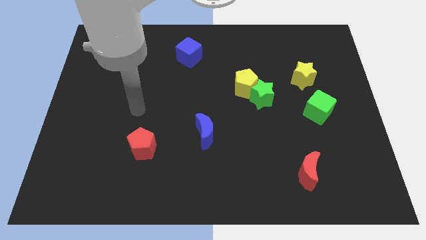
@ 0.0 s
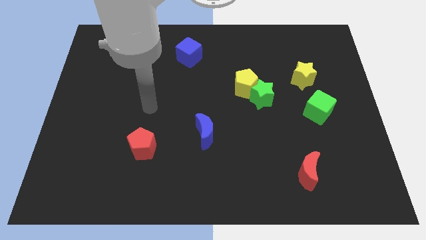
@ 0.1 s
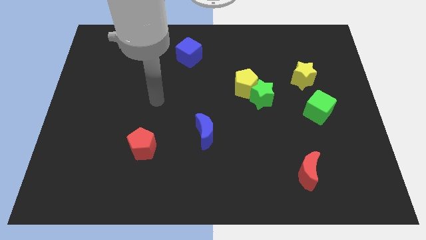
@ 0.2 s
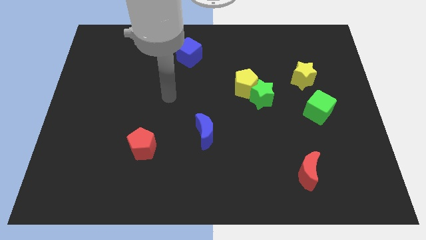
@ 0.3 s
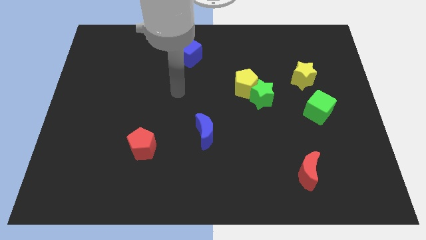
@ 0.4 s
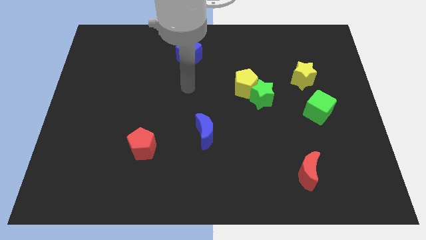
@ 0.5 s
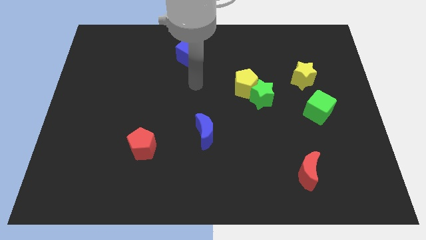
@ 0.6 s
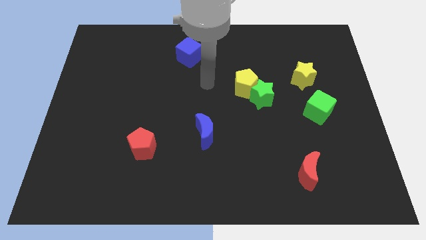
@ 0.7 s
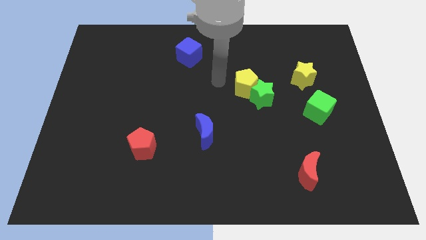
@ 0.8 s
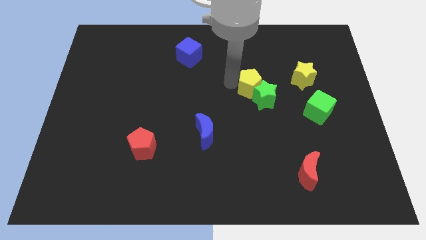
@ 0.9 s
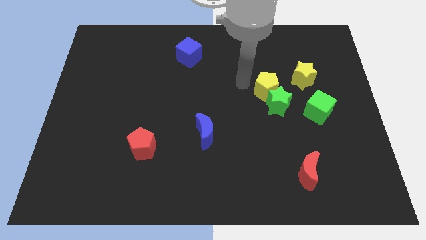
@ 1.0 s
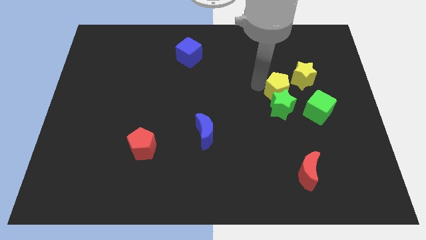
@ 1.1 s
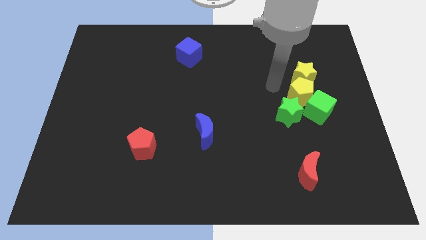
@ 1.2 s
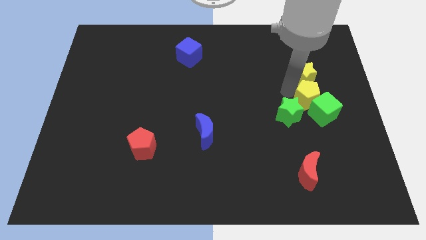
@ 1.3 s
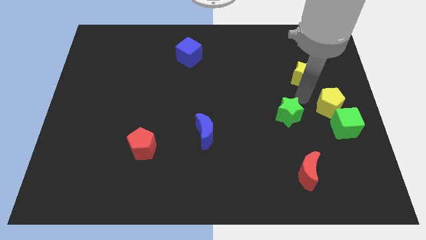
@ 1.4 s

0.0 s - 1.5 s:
separate the green star from the yellow pentagon

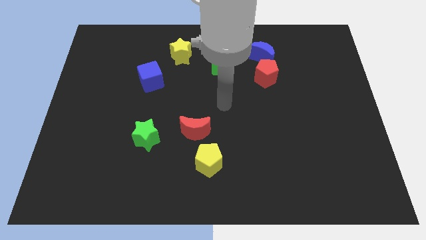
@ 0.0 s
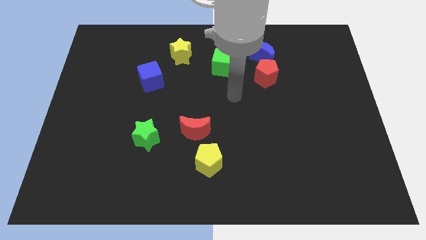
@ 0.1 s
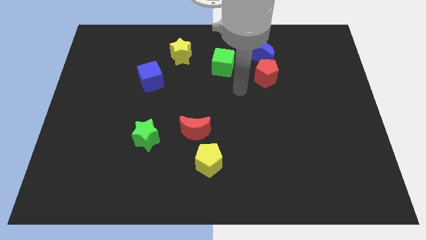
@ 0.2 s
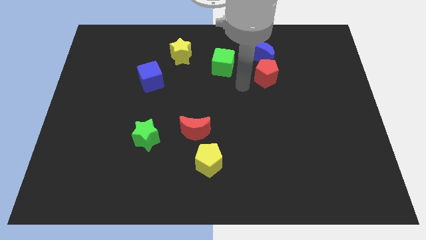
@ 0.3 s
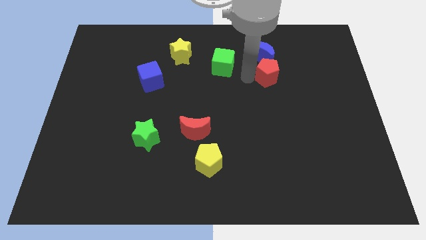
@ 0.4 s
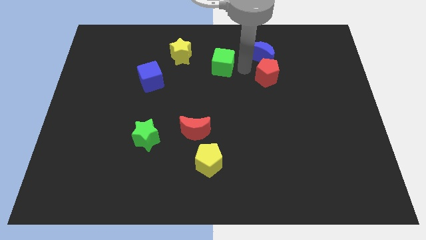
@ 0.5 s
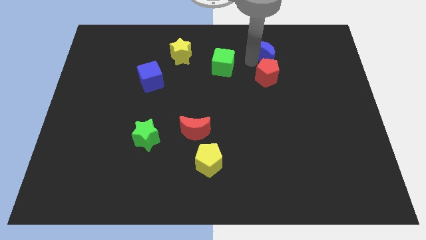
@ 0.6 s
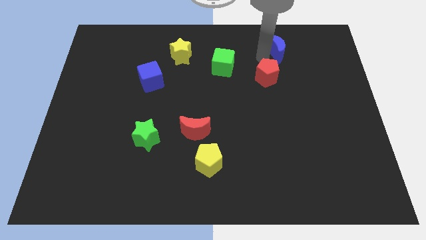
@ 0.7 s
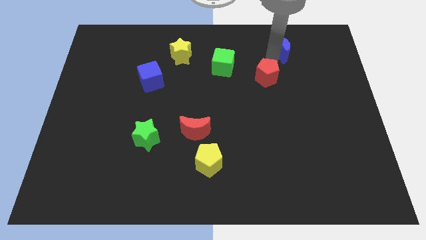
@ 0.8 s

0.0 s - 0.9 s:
pull the red pentagon apart from the blue moon

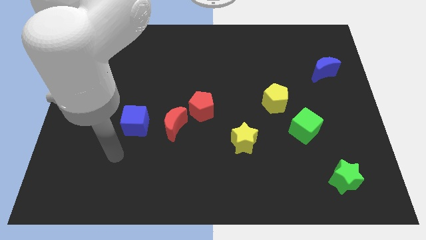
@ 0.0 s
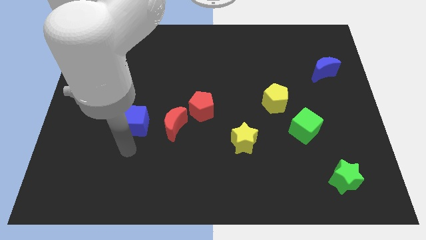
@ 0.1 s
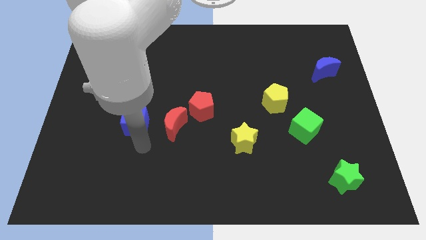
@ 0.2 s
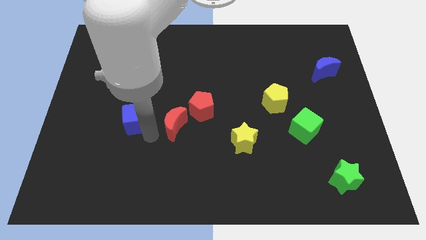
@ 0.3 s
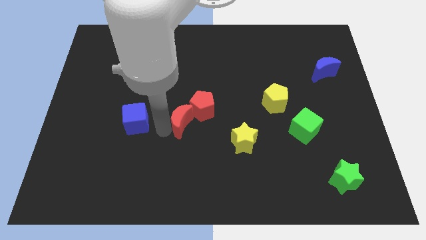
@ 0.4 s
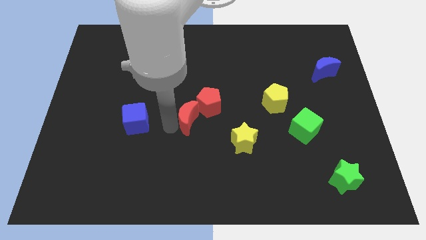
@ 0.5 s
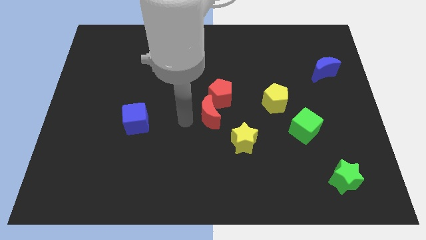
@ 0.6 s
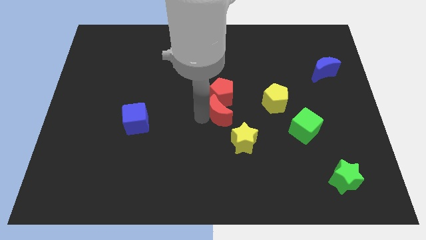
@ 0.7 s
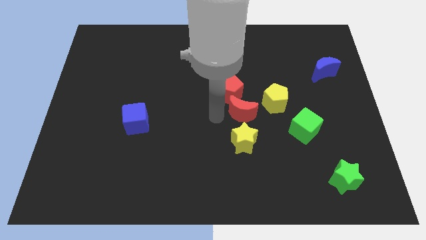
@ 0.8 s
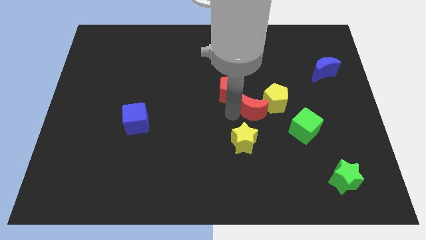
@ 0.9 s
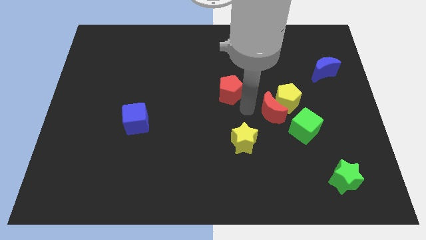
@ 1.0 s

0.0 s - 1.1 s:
move the red pentagon away from the red moon

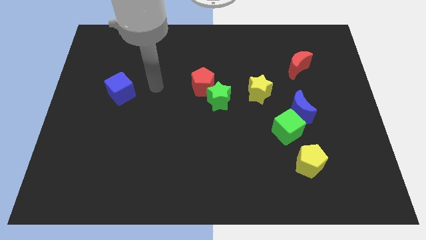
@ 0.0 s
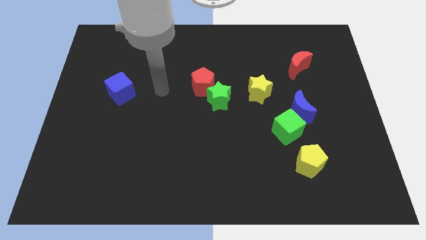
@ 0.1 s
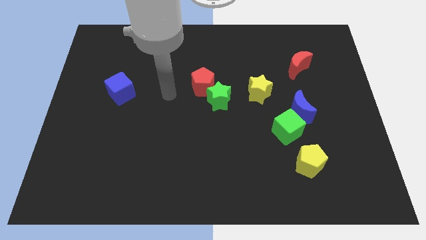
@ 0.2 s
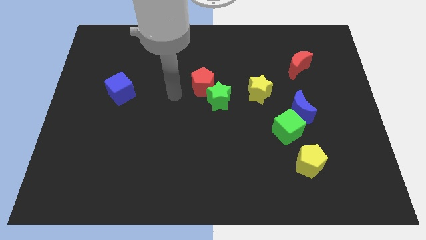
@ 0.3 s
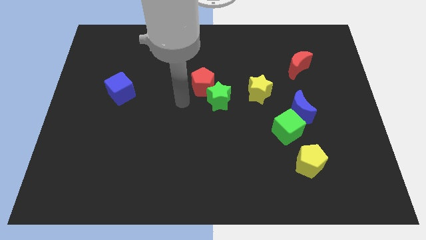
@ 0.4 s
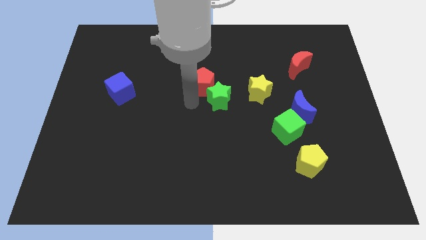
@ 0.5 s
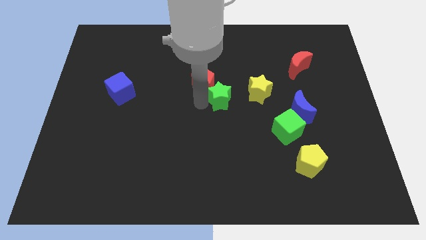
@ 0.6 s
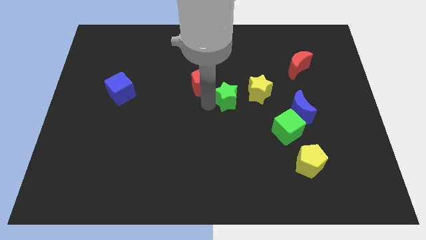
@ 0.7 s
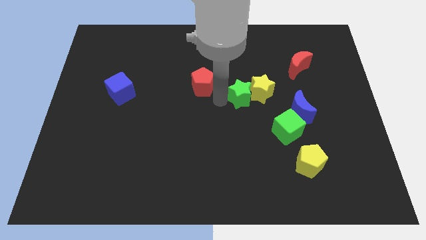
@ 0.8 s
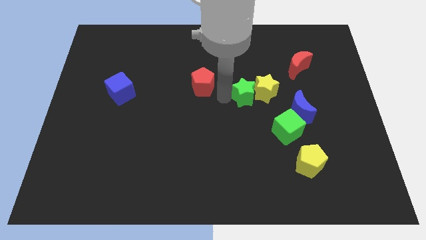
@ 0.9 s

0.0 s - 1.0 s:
separate the red pentagon from the green star

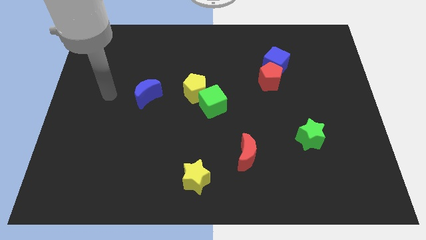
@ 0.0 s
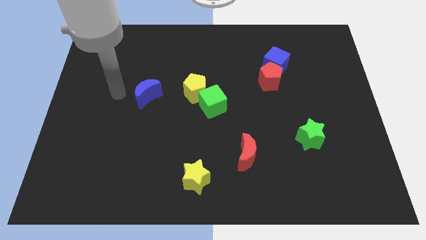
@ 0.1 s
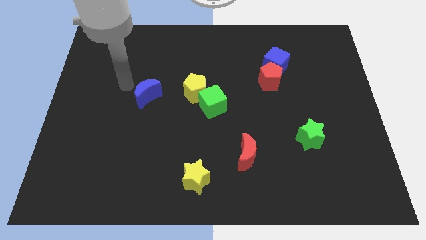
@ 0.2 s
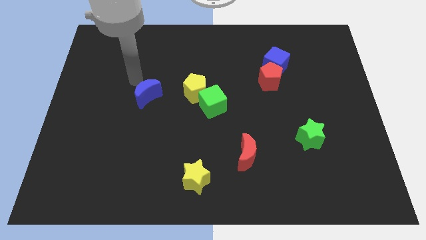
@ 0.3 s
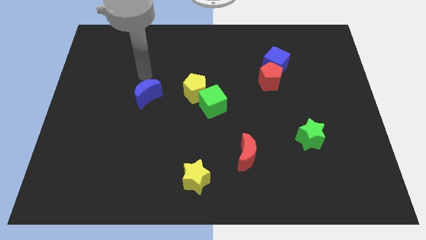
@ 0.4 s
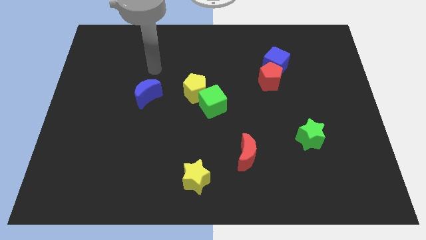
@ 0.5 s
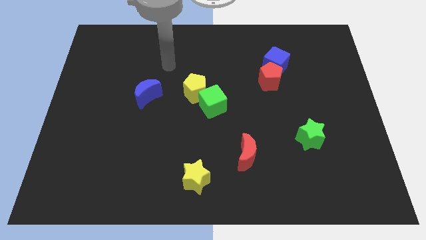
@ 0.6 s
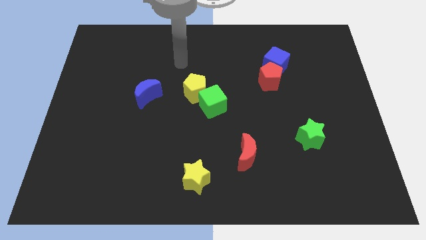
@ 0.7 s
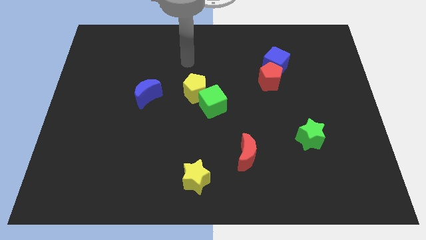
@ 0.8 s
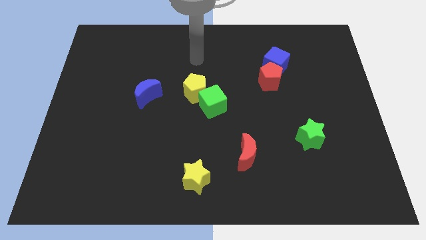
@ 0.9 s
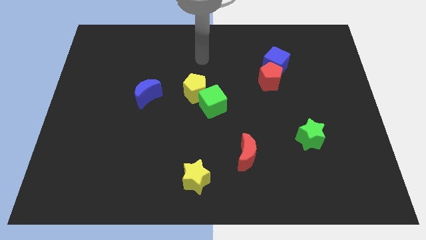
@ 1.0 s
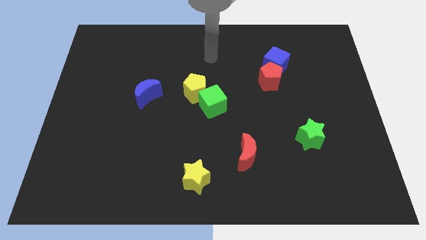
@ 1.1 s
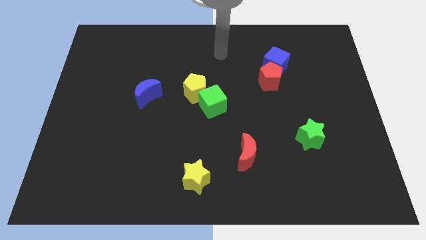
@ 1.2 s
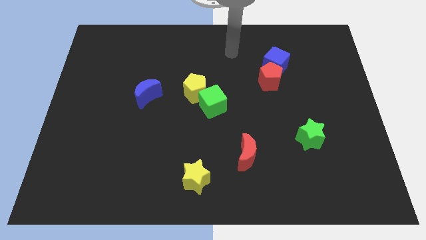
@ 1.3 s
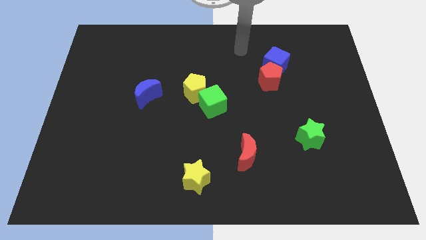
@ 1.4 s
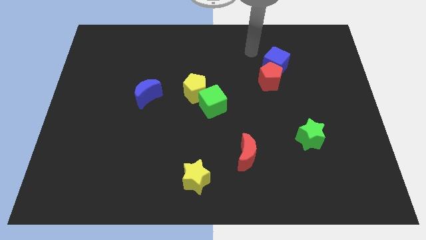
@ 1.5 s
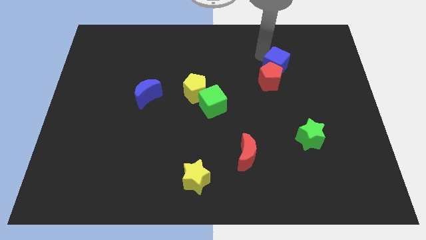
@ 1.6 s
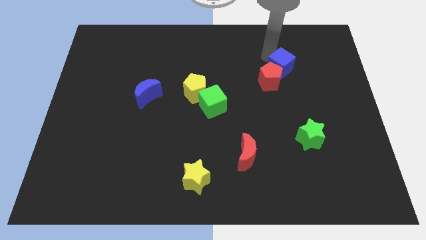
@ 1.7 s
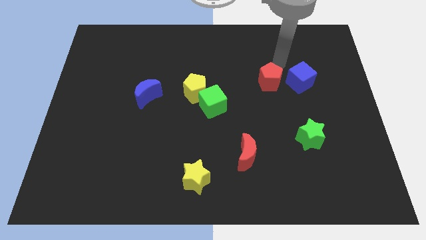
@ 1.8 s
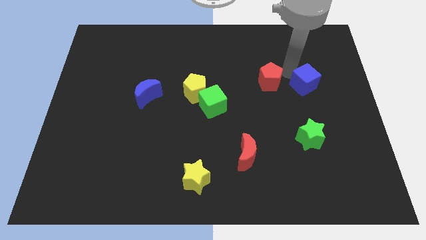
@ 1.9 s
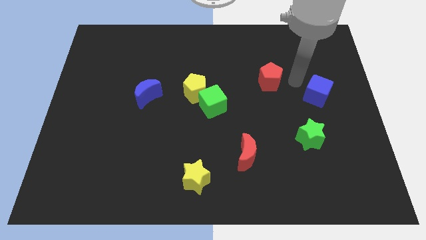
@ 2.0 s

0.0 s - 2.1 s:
pull the red pentagon apart from the blue cube

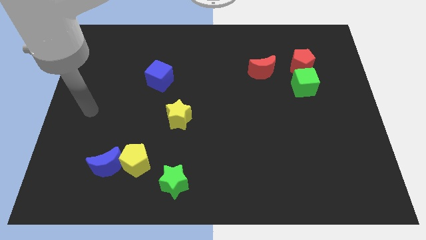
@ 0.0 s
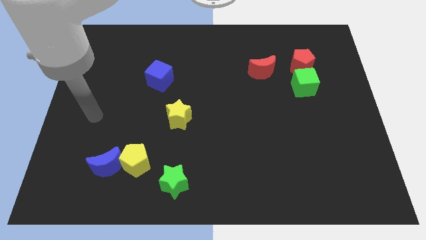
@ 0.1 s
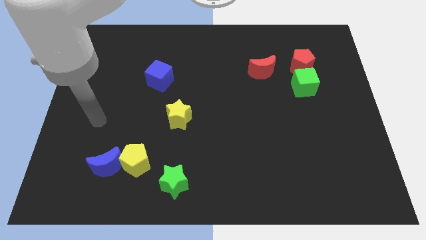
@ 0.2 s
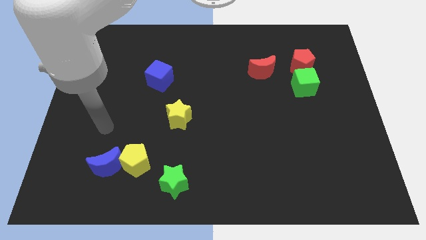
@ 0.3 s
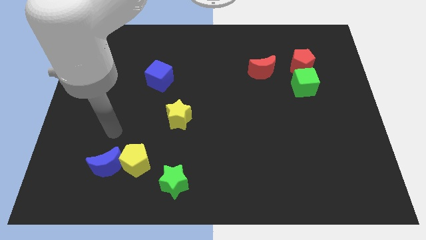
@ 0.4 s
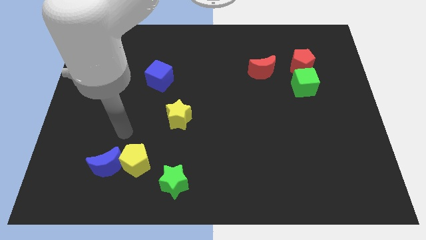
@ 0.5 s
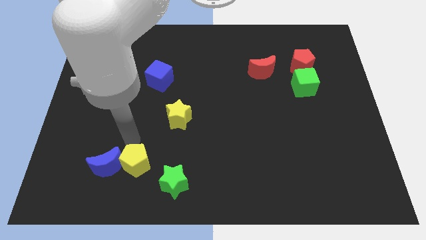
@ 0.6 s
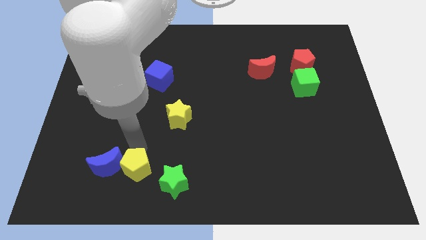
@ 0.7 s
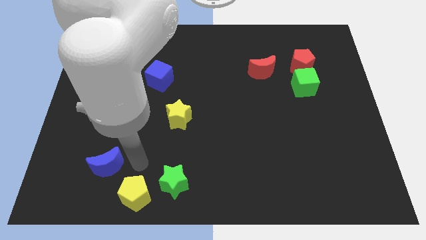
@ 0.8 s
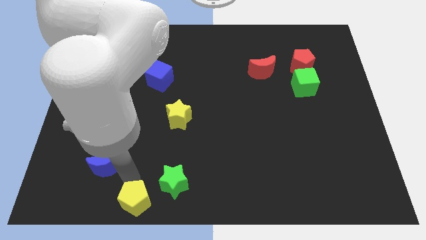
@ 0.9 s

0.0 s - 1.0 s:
pull the blue moon apart from the yellow pentagon

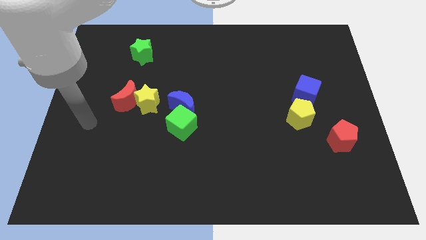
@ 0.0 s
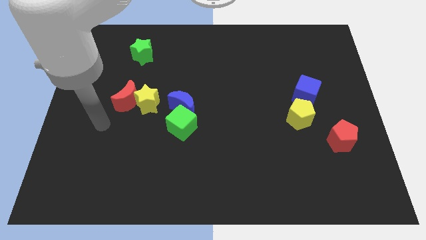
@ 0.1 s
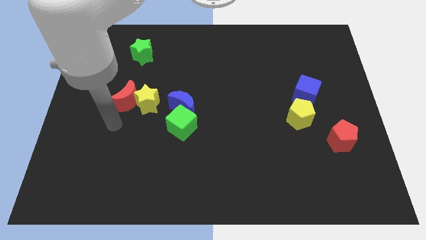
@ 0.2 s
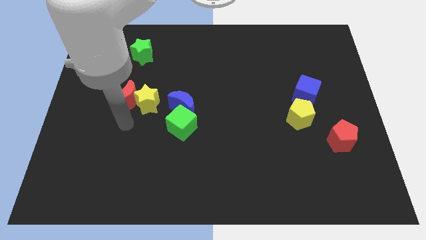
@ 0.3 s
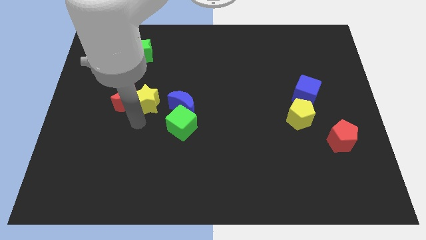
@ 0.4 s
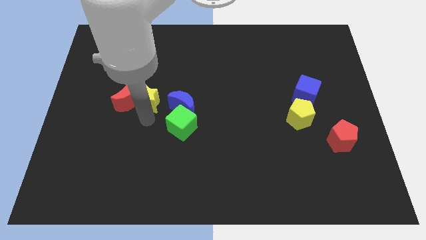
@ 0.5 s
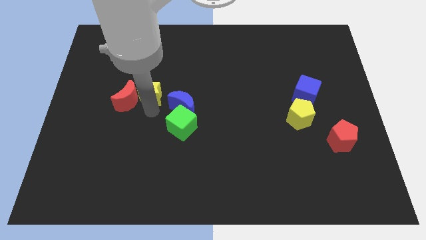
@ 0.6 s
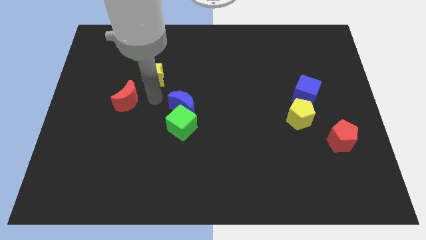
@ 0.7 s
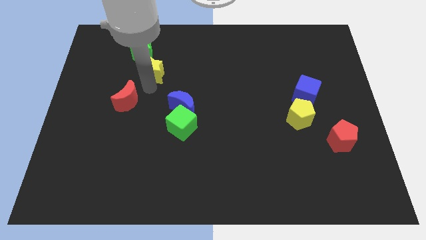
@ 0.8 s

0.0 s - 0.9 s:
move the red moon away from the yellow star

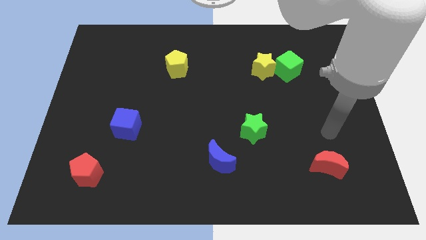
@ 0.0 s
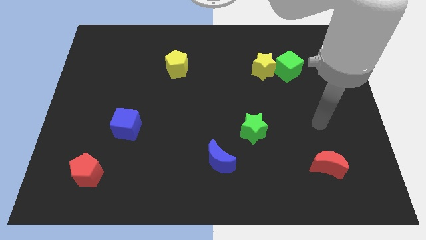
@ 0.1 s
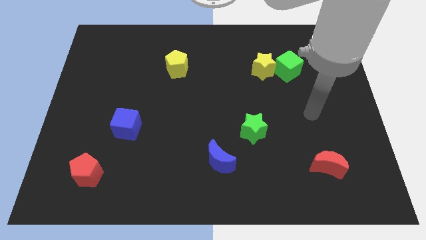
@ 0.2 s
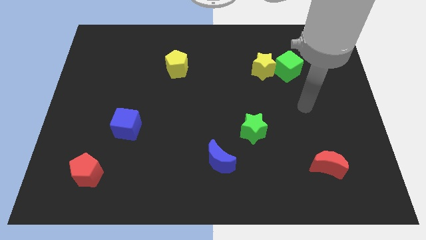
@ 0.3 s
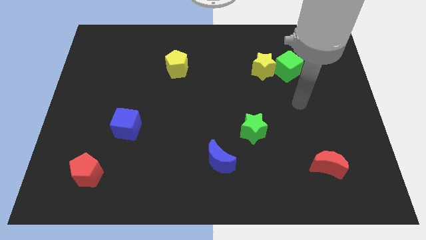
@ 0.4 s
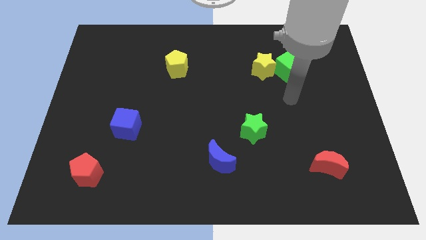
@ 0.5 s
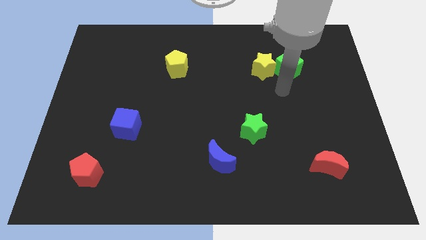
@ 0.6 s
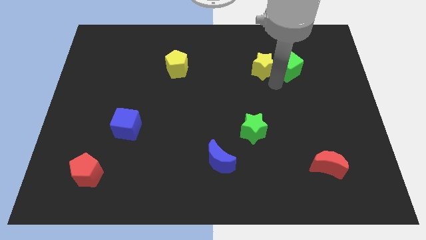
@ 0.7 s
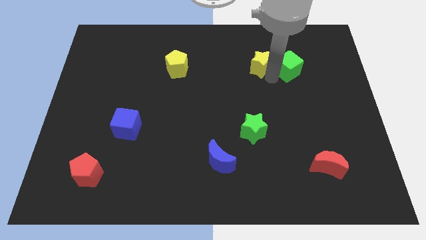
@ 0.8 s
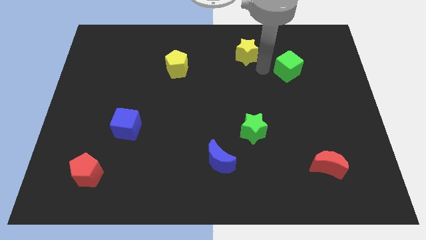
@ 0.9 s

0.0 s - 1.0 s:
separate the green cube from the yellow star
